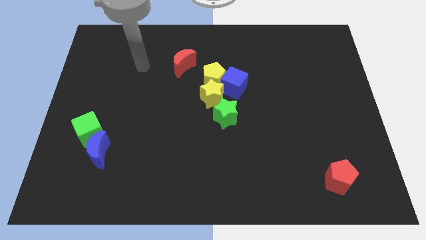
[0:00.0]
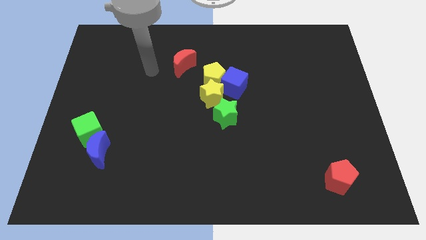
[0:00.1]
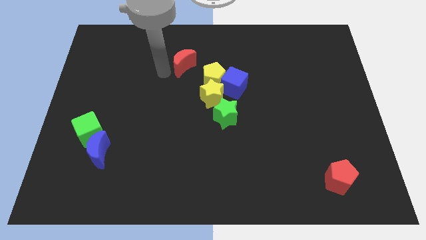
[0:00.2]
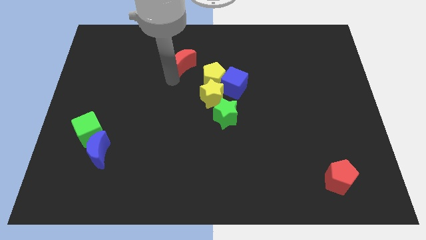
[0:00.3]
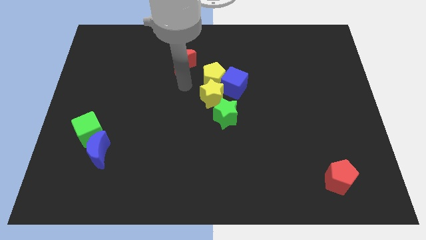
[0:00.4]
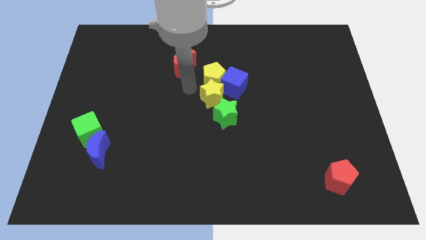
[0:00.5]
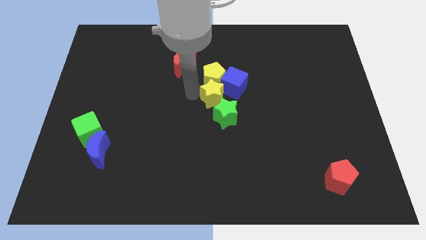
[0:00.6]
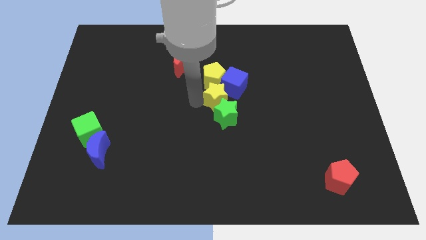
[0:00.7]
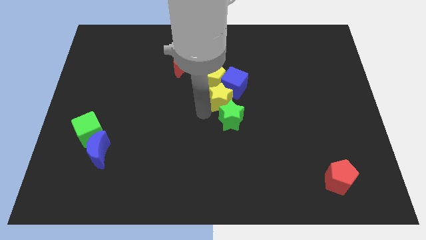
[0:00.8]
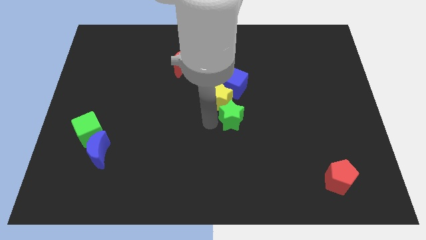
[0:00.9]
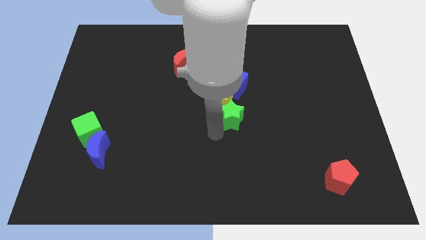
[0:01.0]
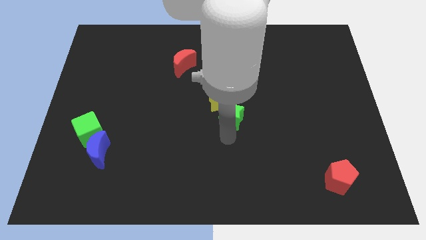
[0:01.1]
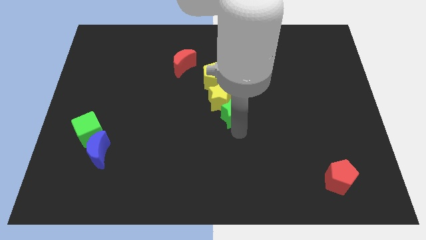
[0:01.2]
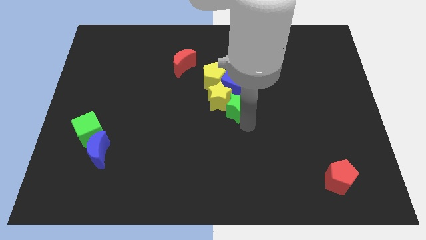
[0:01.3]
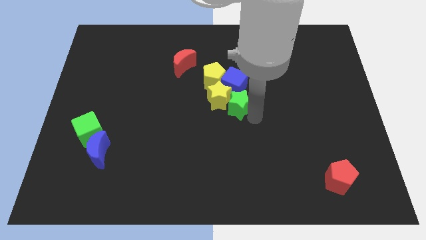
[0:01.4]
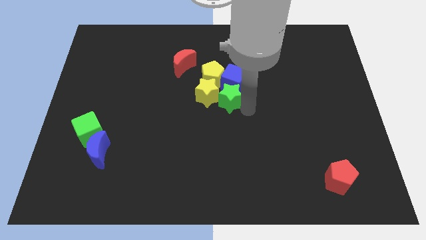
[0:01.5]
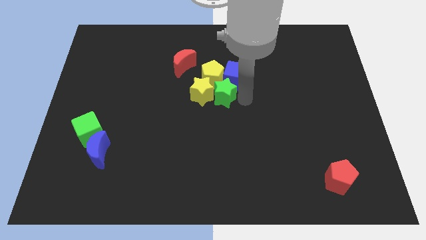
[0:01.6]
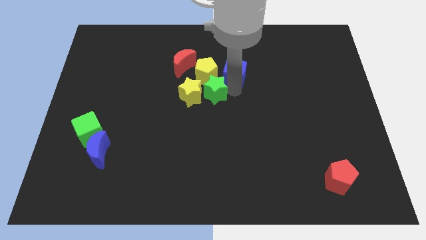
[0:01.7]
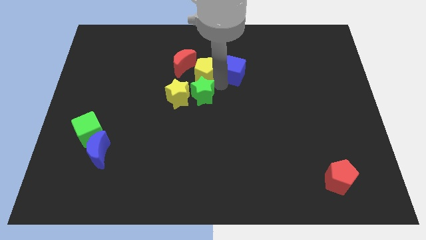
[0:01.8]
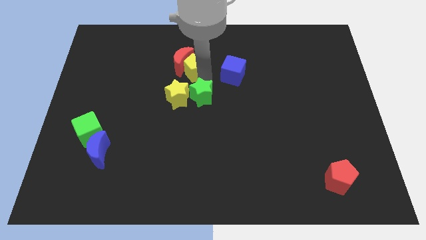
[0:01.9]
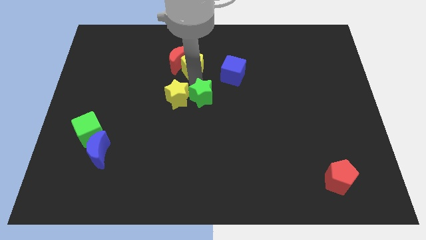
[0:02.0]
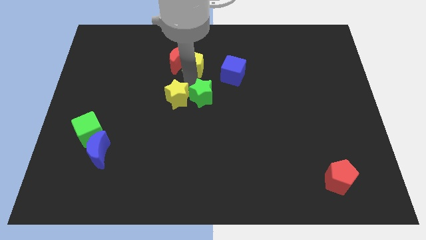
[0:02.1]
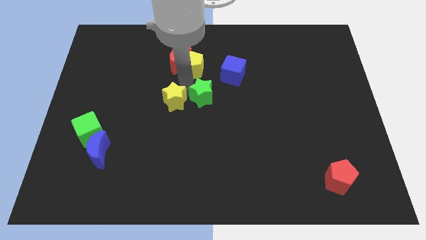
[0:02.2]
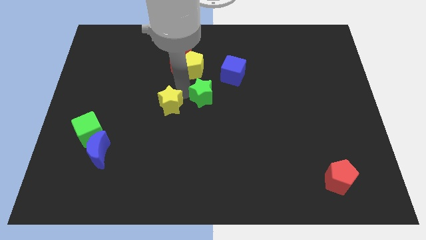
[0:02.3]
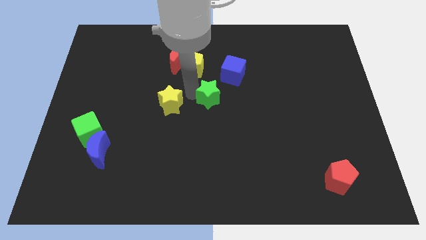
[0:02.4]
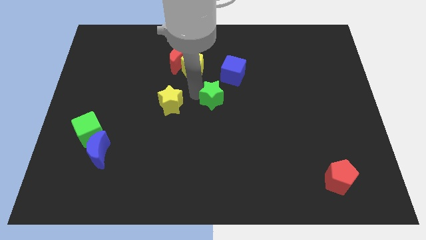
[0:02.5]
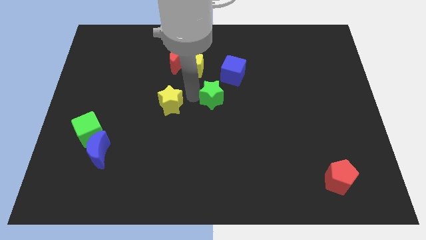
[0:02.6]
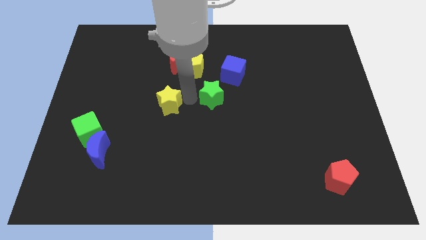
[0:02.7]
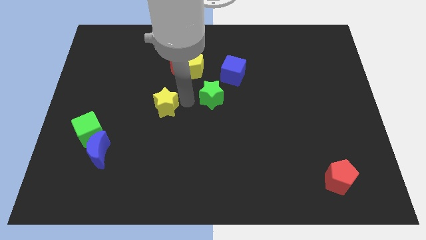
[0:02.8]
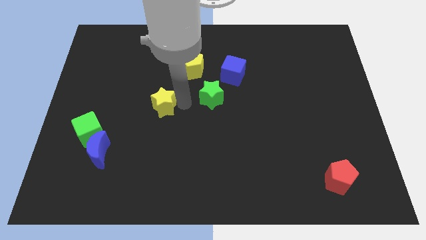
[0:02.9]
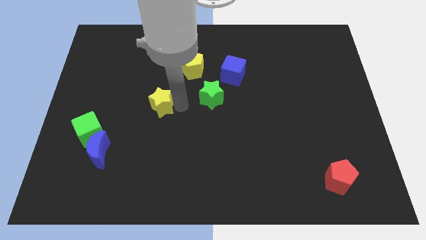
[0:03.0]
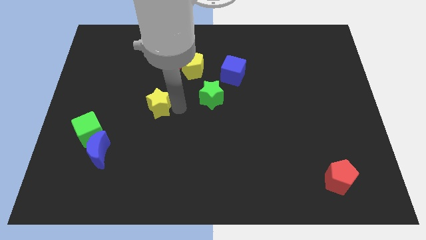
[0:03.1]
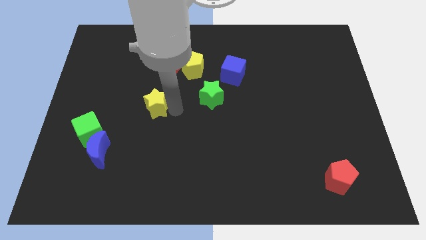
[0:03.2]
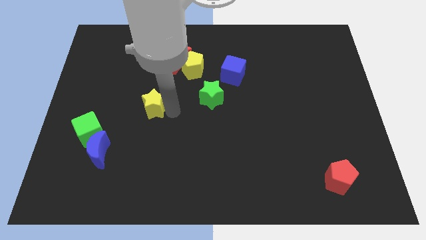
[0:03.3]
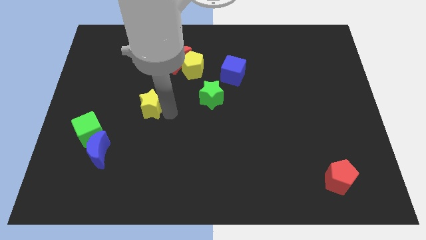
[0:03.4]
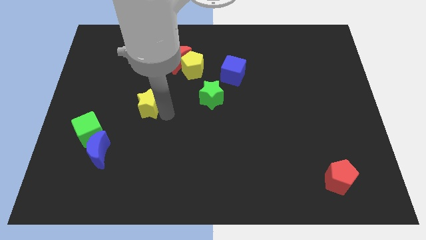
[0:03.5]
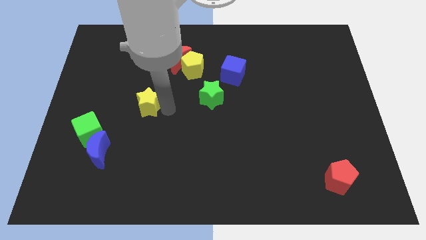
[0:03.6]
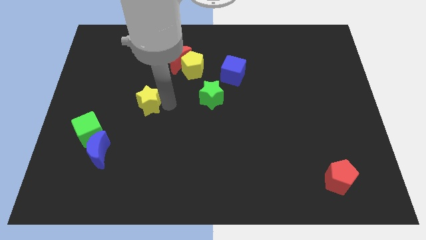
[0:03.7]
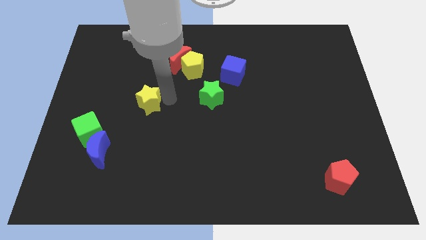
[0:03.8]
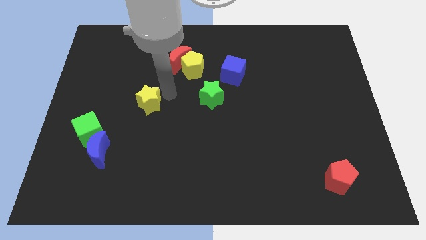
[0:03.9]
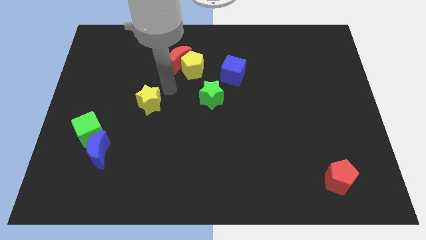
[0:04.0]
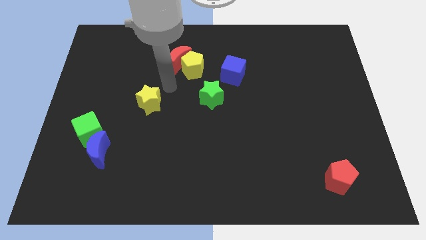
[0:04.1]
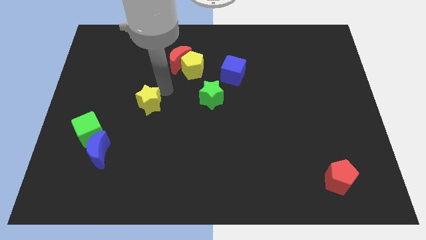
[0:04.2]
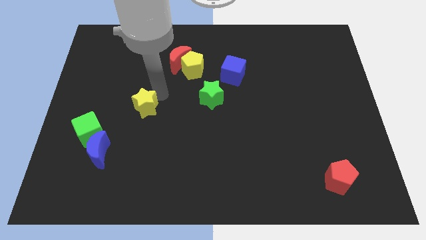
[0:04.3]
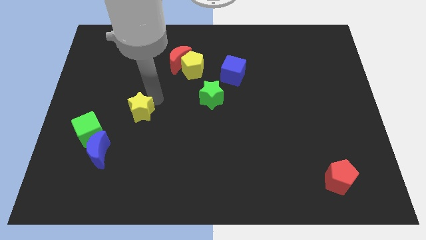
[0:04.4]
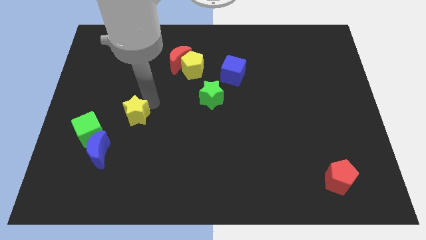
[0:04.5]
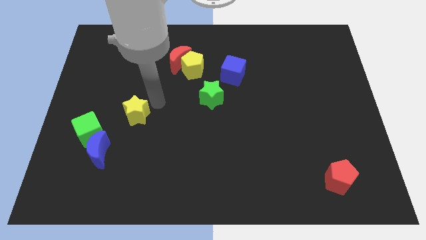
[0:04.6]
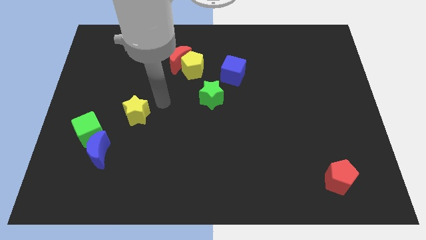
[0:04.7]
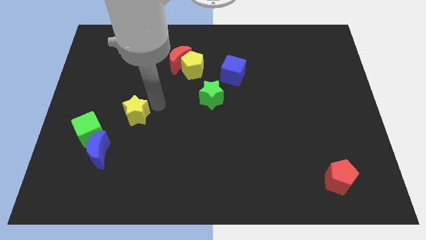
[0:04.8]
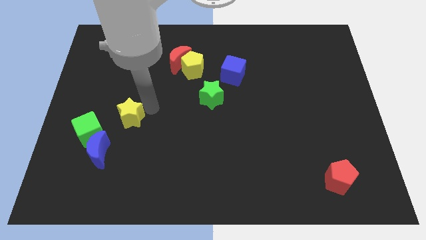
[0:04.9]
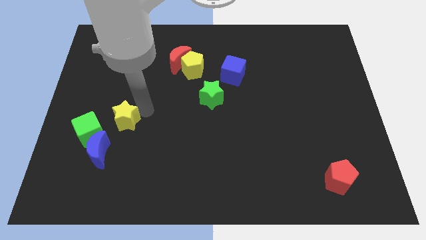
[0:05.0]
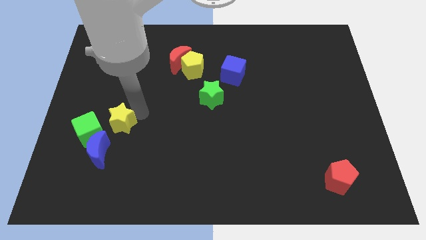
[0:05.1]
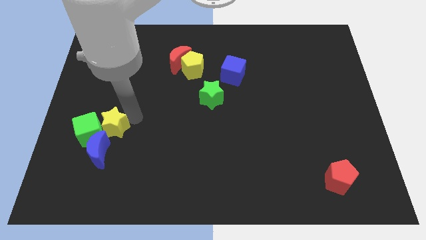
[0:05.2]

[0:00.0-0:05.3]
put the yellow star next to the green cube

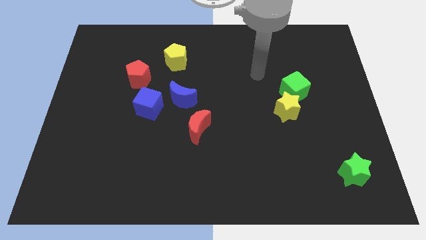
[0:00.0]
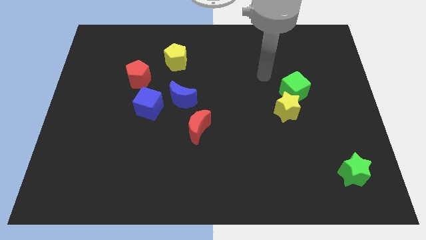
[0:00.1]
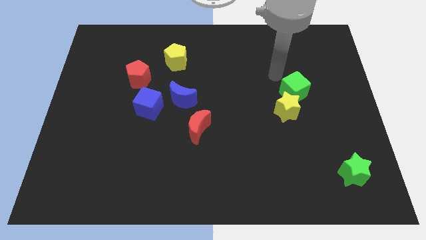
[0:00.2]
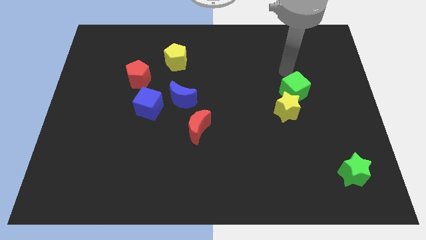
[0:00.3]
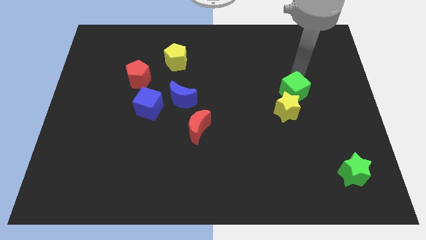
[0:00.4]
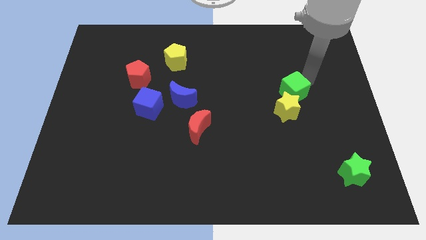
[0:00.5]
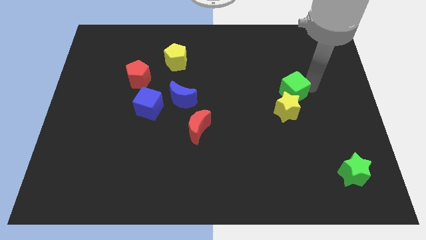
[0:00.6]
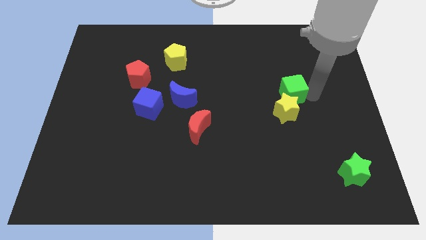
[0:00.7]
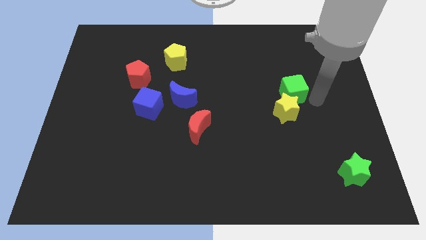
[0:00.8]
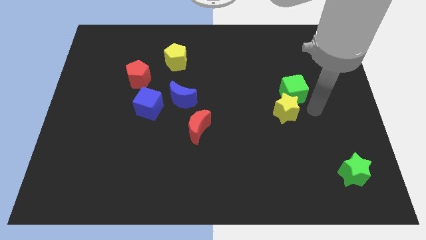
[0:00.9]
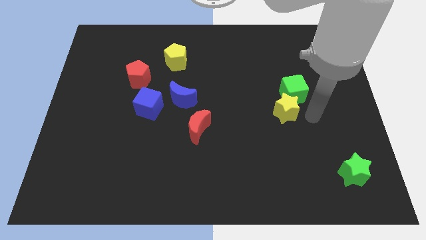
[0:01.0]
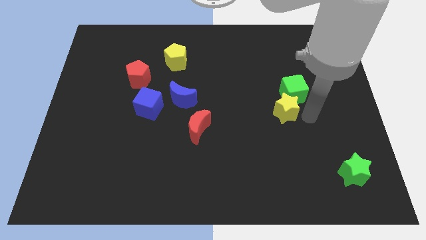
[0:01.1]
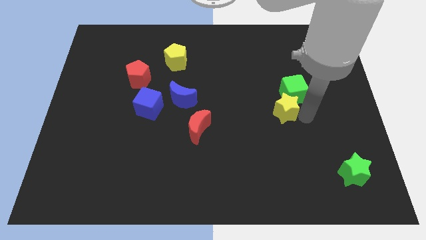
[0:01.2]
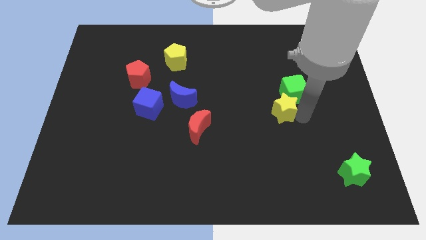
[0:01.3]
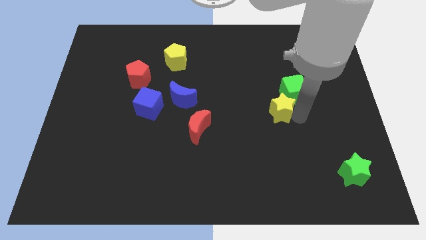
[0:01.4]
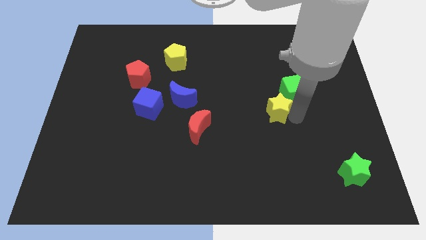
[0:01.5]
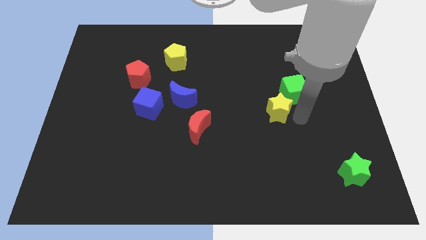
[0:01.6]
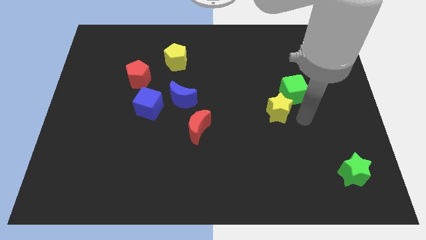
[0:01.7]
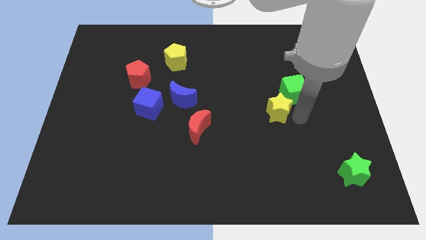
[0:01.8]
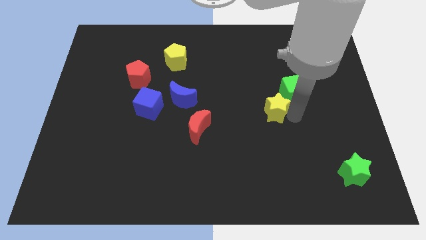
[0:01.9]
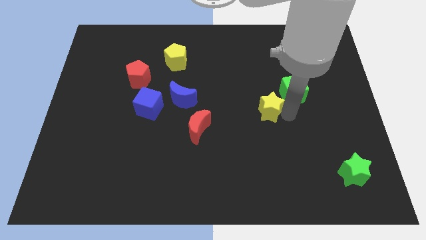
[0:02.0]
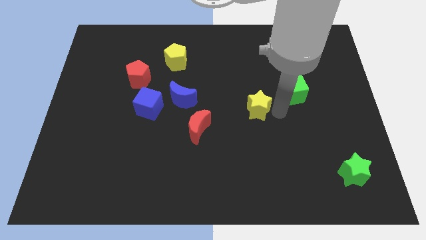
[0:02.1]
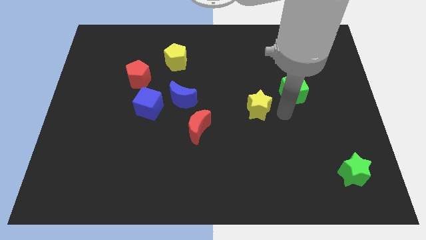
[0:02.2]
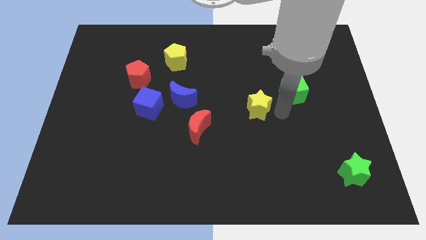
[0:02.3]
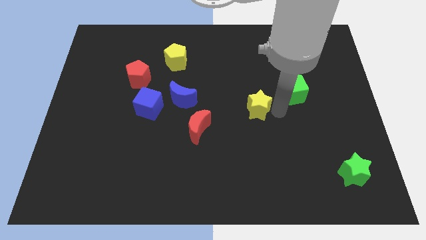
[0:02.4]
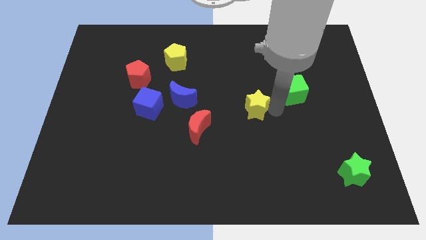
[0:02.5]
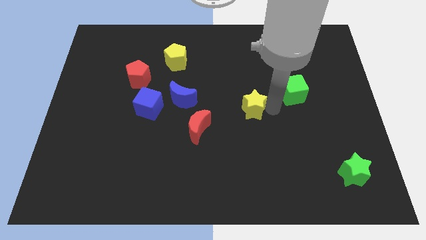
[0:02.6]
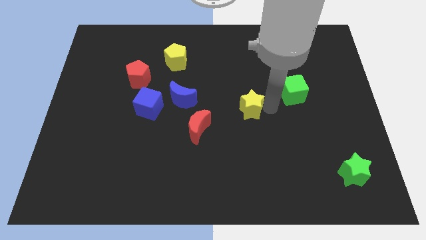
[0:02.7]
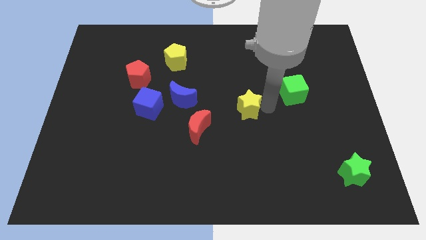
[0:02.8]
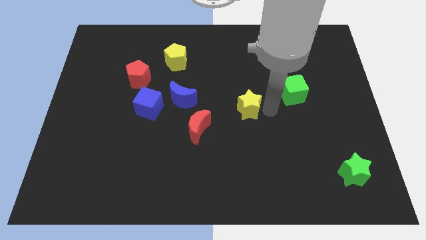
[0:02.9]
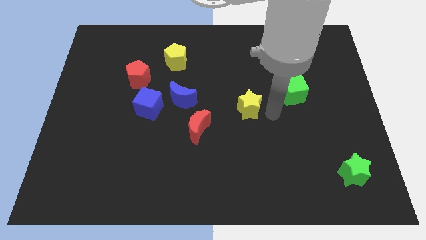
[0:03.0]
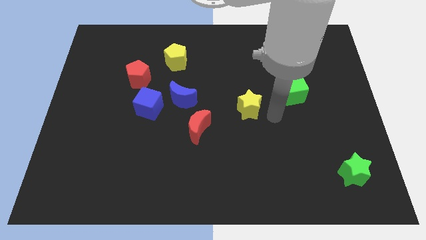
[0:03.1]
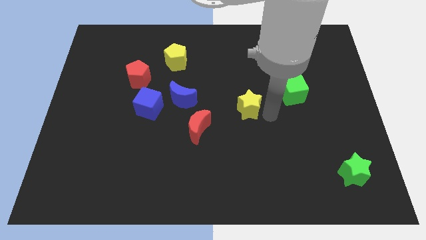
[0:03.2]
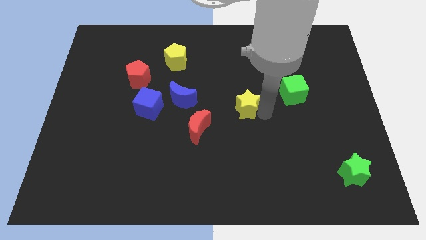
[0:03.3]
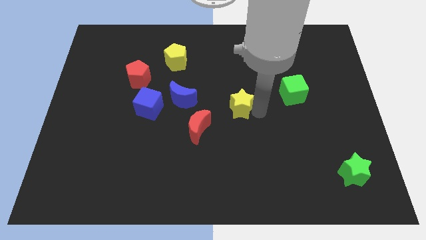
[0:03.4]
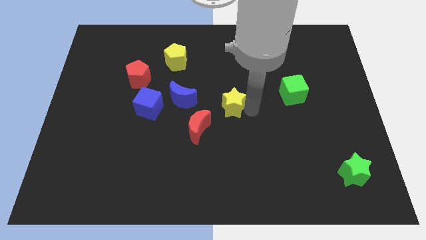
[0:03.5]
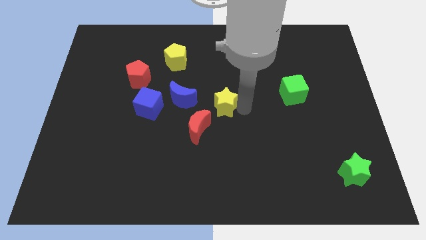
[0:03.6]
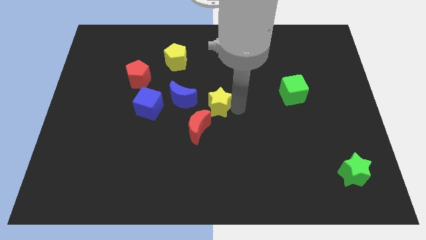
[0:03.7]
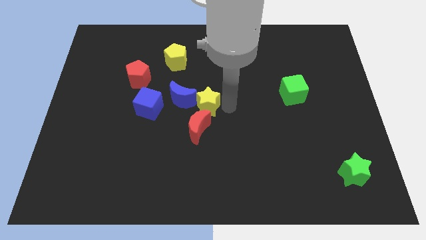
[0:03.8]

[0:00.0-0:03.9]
put the yellow star next to the blue moon
